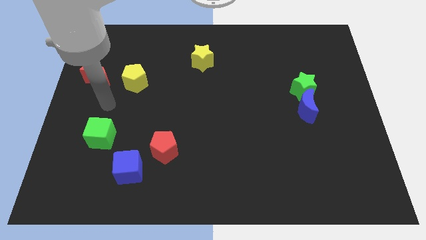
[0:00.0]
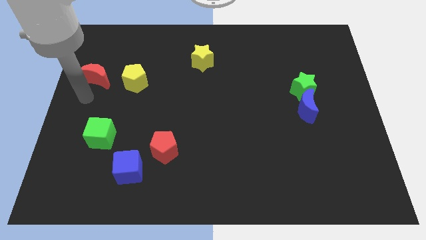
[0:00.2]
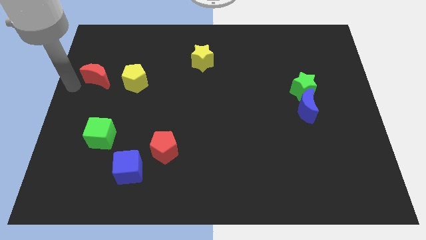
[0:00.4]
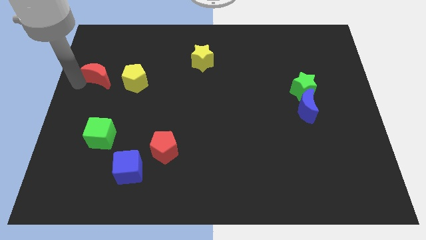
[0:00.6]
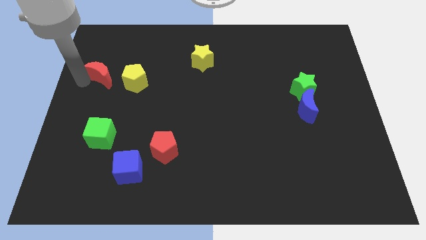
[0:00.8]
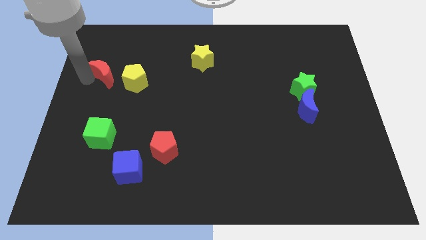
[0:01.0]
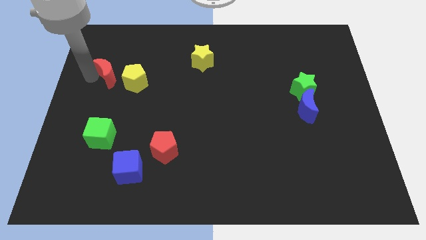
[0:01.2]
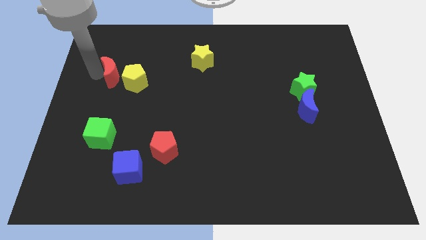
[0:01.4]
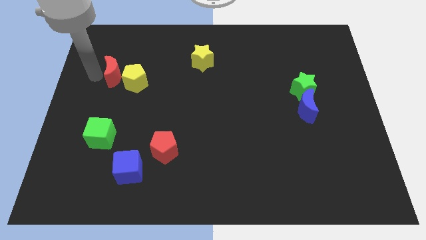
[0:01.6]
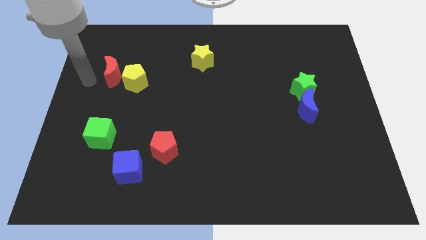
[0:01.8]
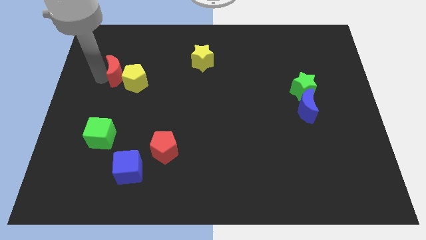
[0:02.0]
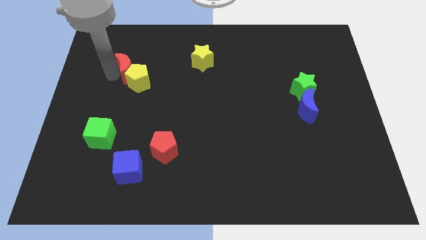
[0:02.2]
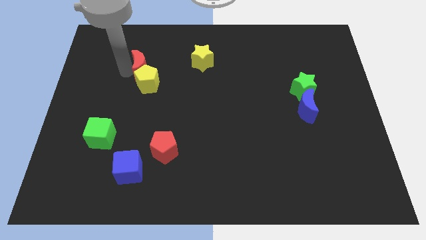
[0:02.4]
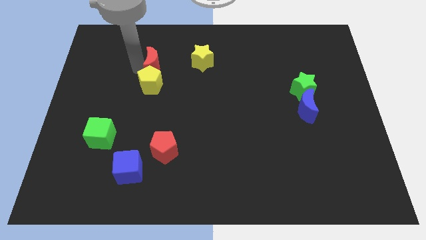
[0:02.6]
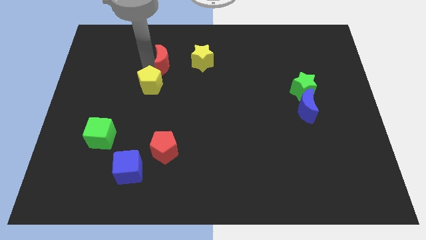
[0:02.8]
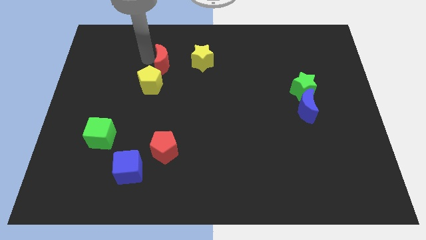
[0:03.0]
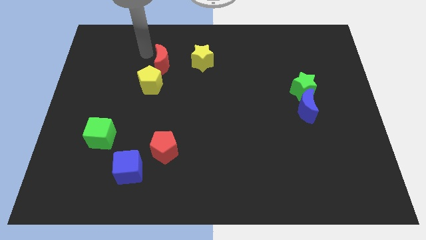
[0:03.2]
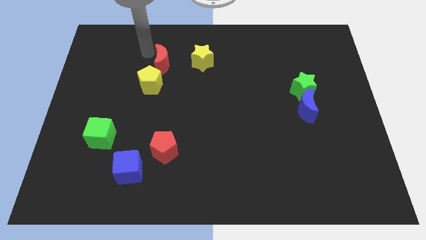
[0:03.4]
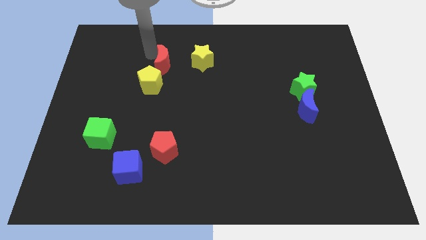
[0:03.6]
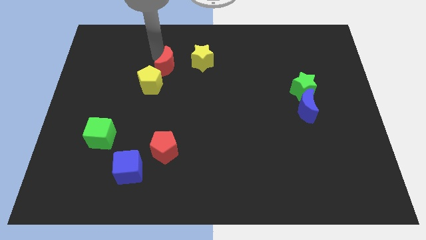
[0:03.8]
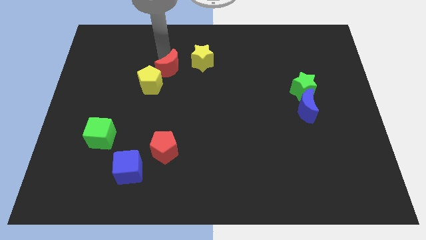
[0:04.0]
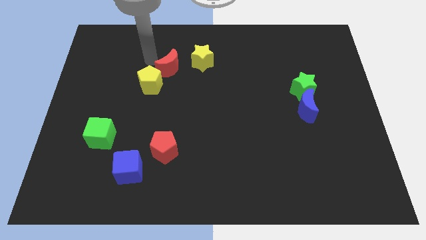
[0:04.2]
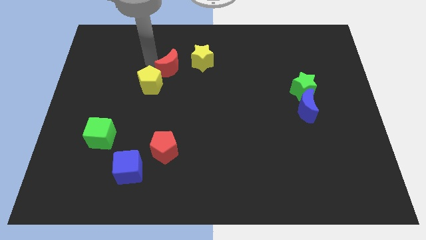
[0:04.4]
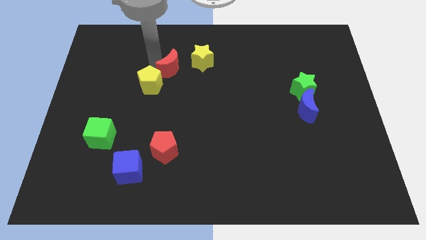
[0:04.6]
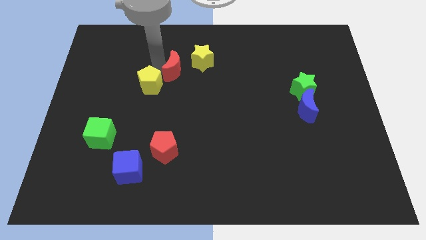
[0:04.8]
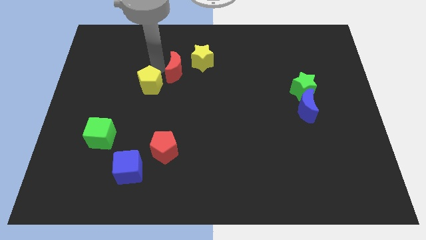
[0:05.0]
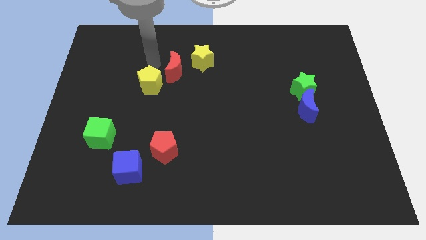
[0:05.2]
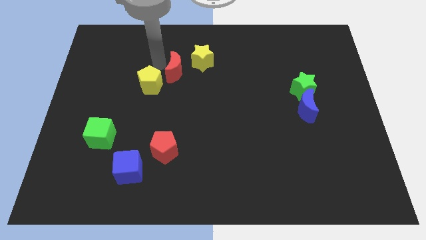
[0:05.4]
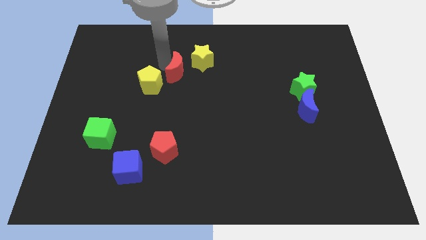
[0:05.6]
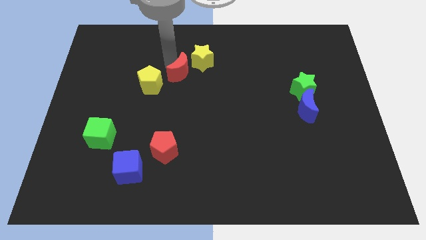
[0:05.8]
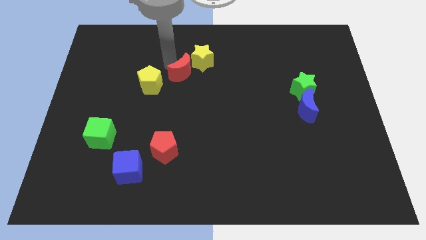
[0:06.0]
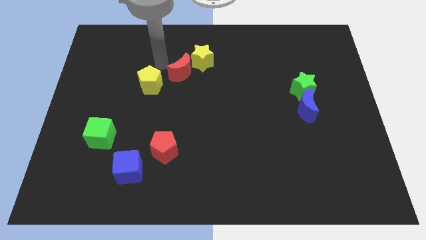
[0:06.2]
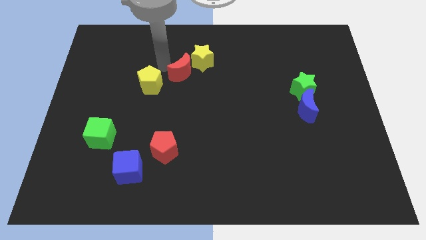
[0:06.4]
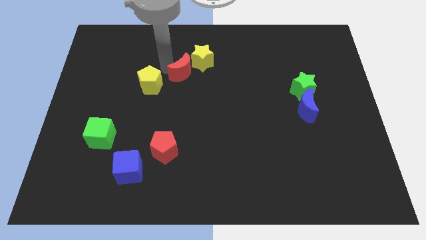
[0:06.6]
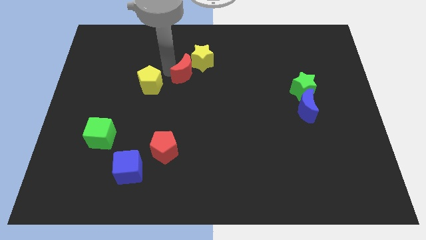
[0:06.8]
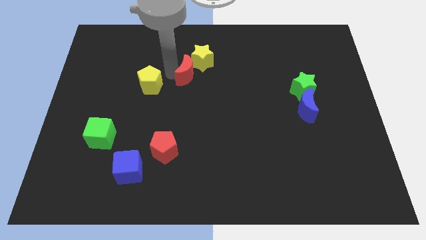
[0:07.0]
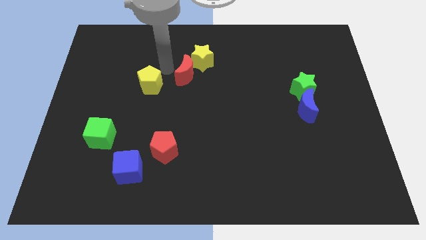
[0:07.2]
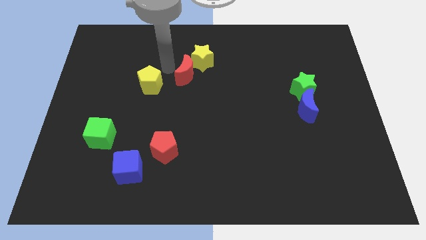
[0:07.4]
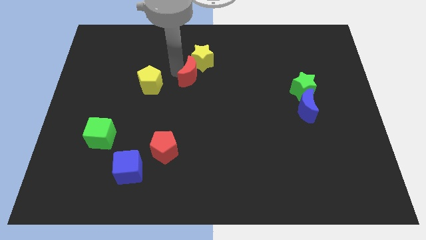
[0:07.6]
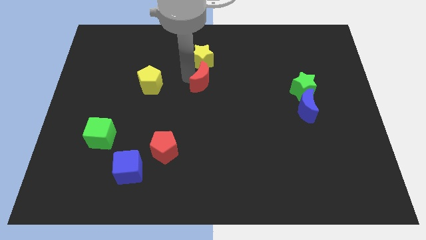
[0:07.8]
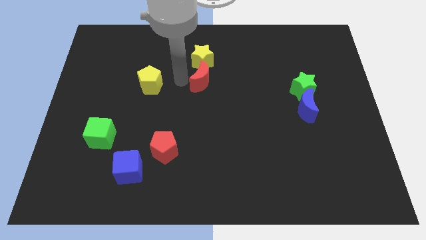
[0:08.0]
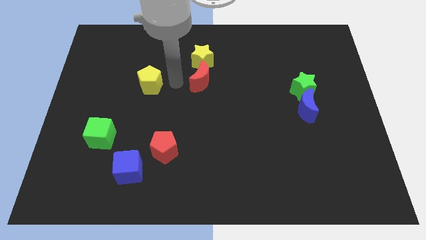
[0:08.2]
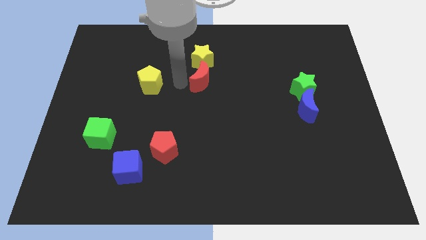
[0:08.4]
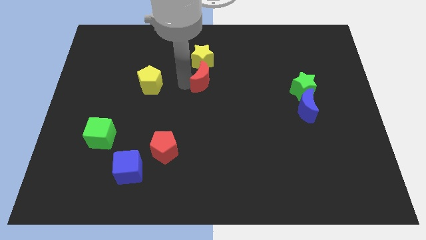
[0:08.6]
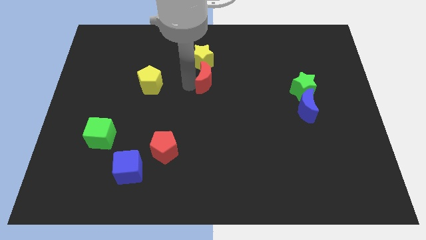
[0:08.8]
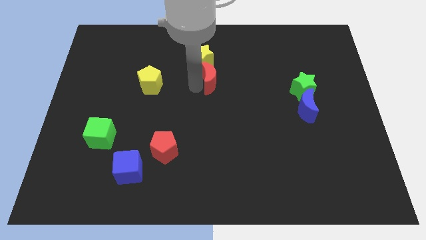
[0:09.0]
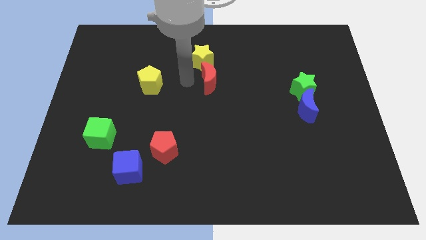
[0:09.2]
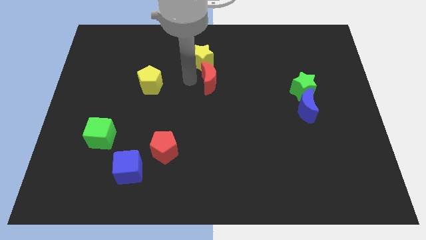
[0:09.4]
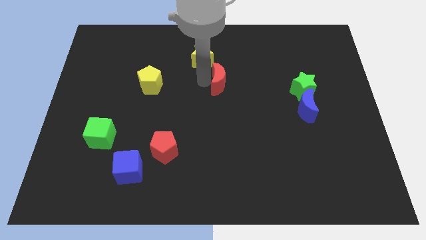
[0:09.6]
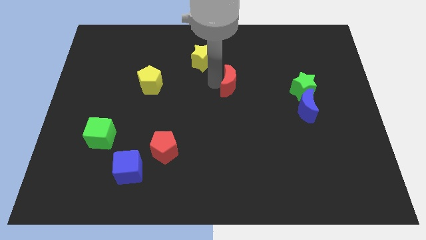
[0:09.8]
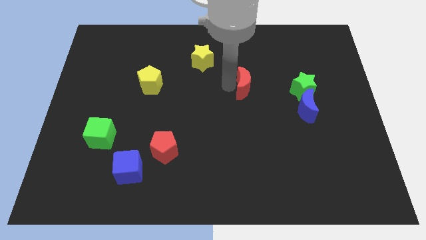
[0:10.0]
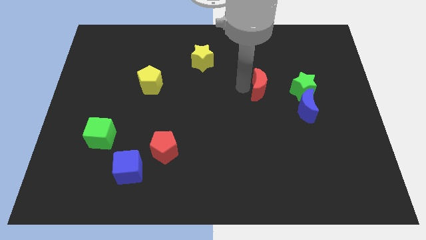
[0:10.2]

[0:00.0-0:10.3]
move the red moon diagonally up and to the left of the blue moon

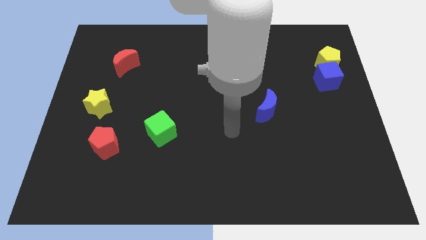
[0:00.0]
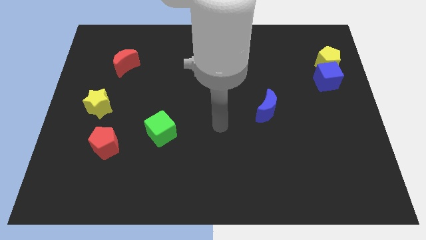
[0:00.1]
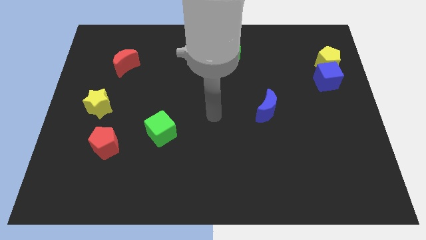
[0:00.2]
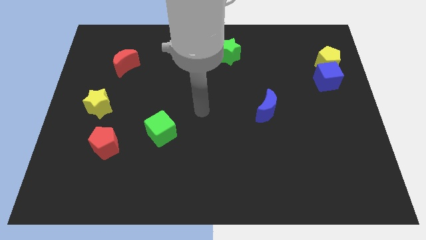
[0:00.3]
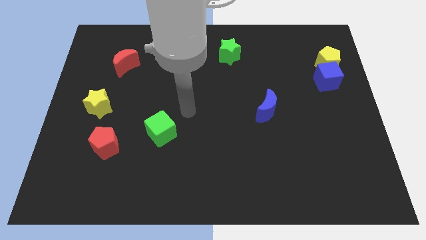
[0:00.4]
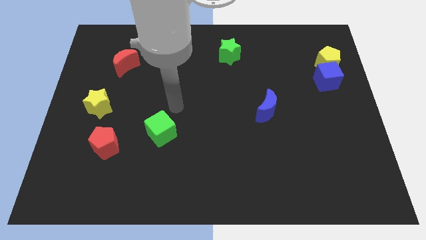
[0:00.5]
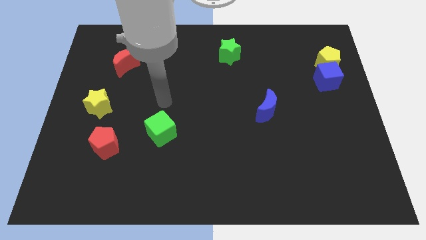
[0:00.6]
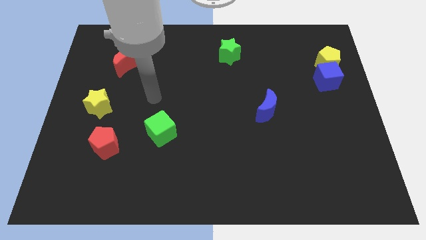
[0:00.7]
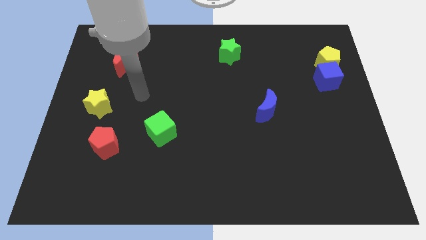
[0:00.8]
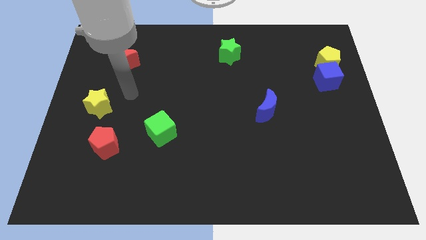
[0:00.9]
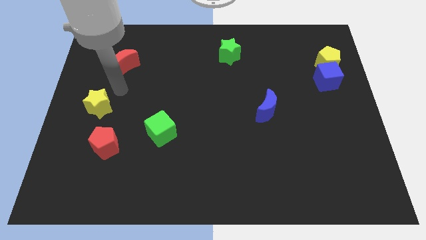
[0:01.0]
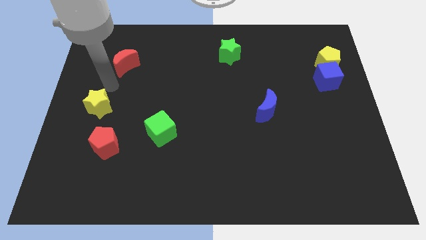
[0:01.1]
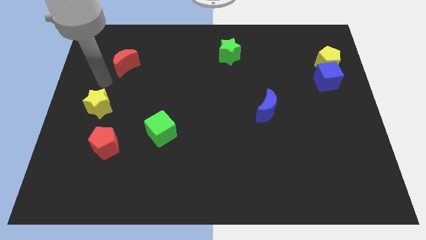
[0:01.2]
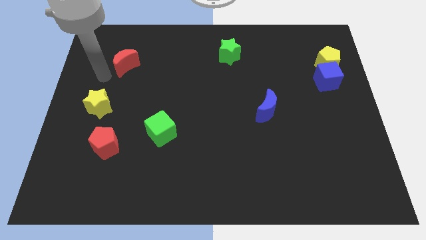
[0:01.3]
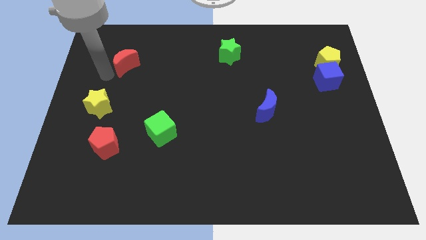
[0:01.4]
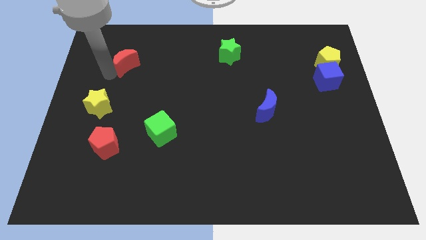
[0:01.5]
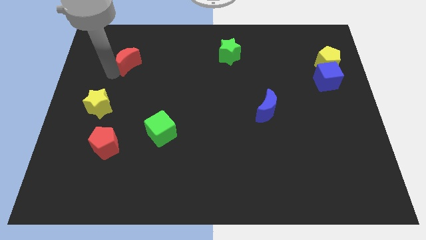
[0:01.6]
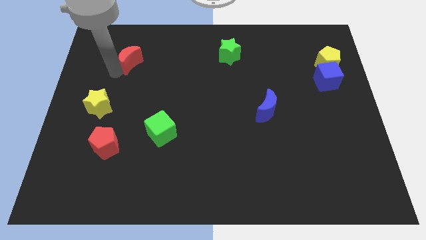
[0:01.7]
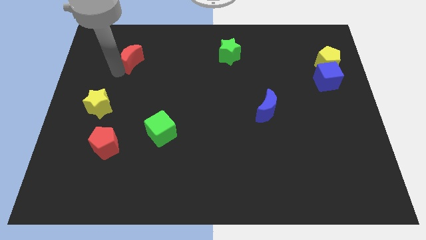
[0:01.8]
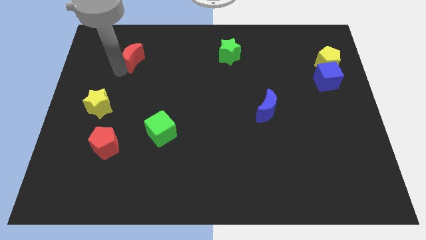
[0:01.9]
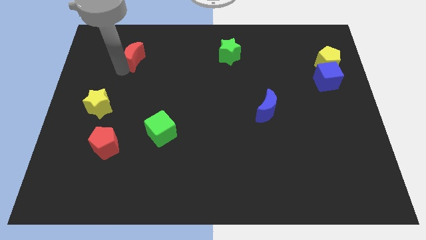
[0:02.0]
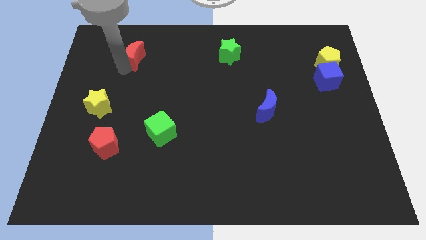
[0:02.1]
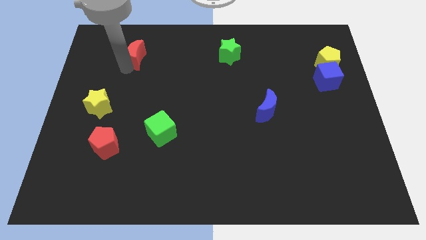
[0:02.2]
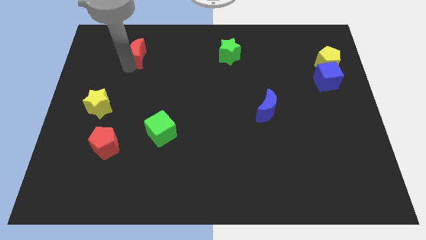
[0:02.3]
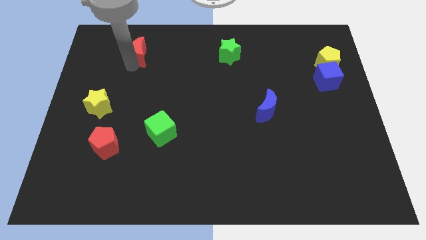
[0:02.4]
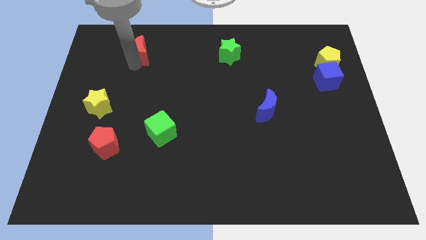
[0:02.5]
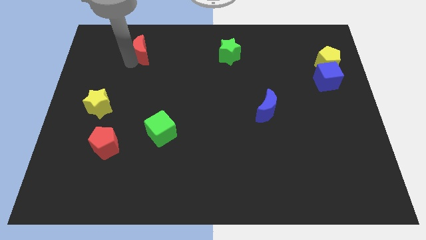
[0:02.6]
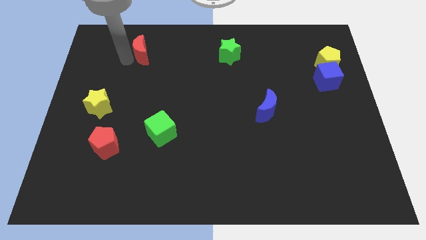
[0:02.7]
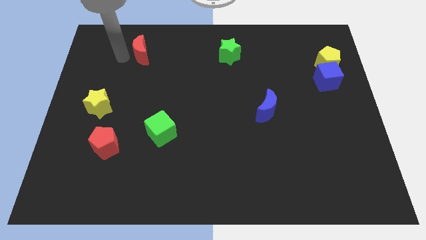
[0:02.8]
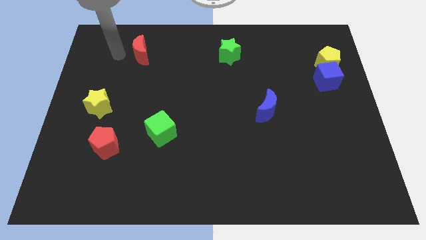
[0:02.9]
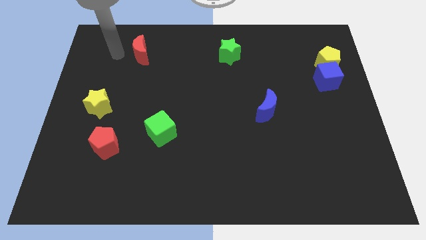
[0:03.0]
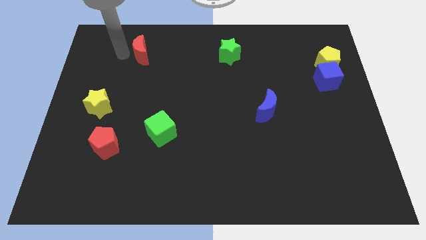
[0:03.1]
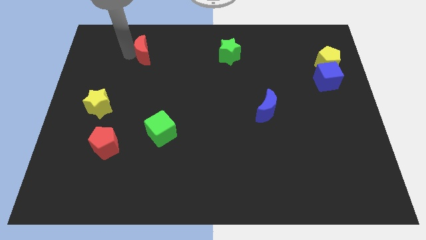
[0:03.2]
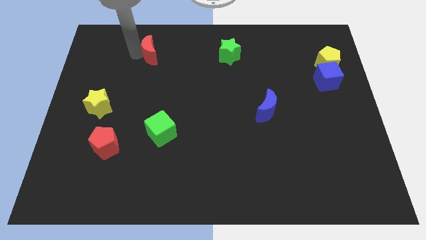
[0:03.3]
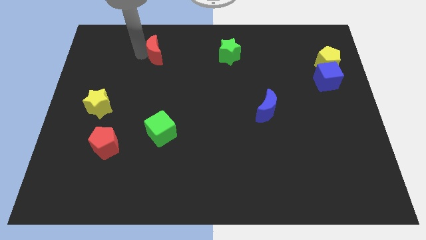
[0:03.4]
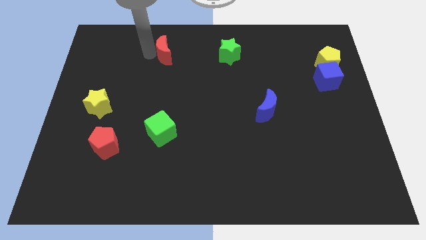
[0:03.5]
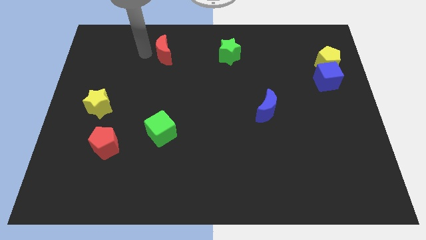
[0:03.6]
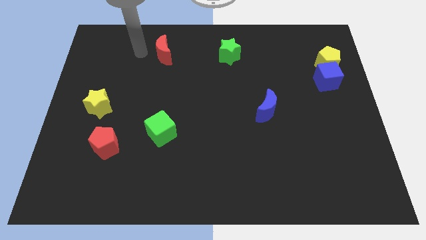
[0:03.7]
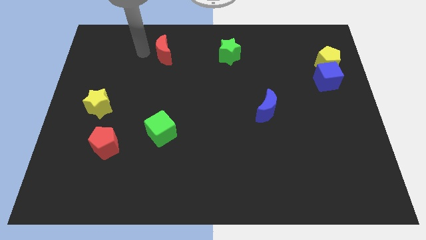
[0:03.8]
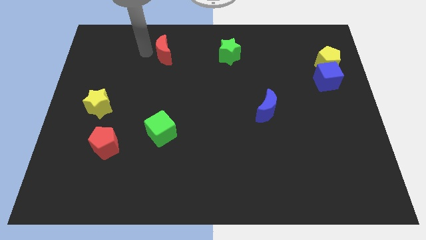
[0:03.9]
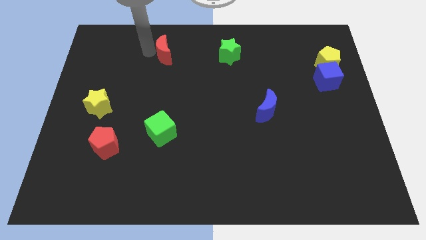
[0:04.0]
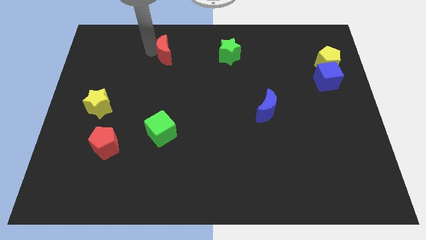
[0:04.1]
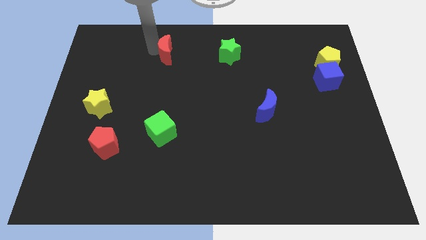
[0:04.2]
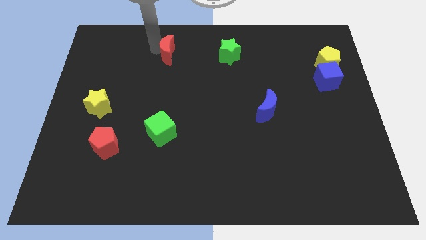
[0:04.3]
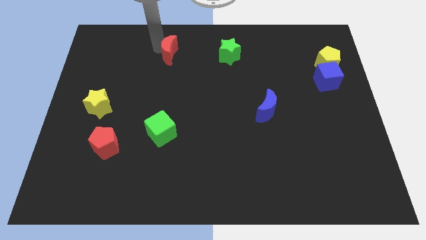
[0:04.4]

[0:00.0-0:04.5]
move the red moon just left of the green star
